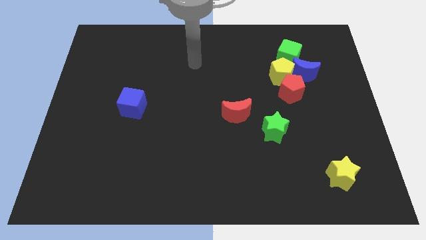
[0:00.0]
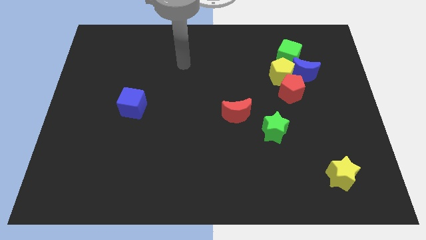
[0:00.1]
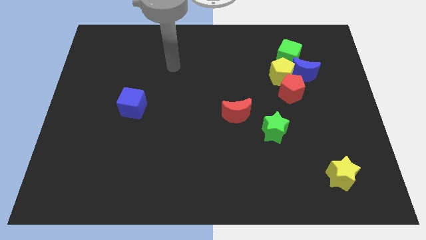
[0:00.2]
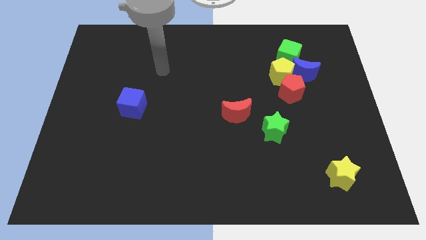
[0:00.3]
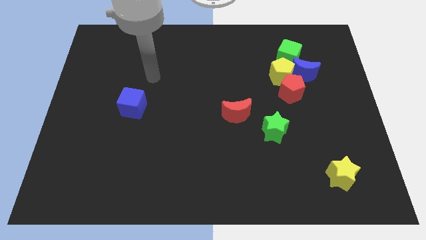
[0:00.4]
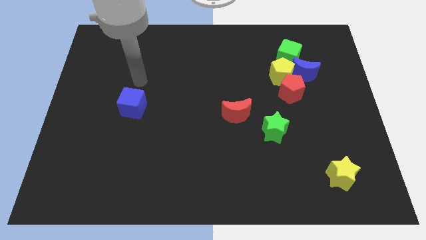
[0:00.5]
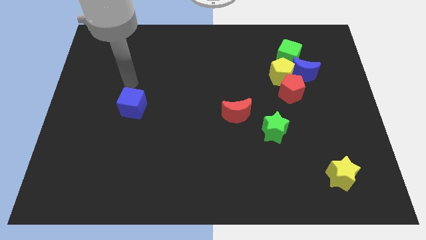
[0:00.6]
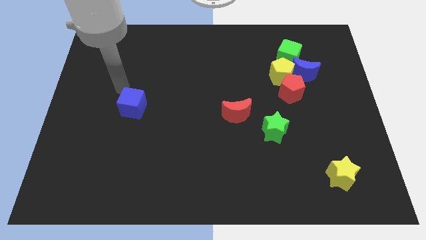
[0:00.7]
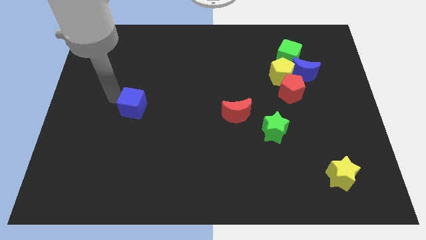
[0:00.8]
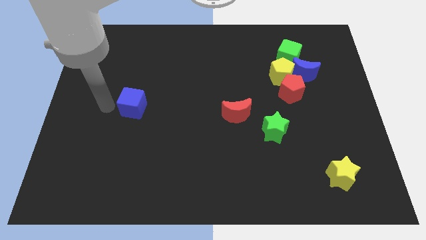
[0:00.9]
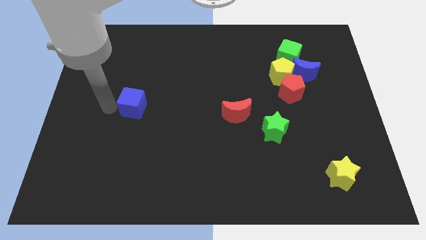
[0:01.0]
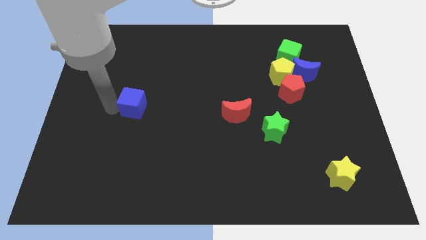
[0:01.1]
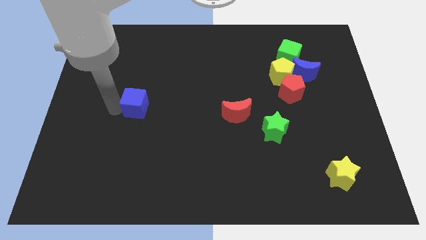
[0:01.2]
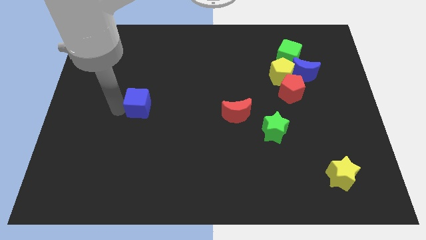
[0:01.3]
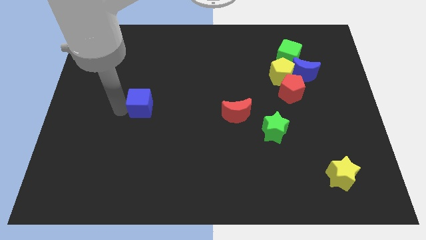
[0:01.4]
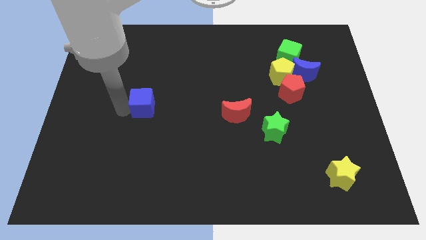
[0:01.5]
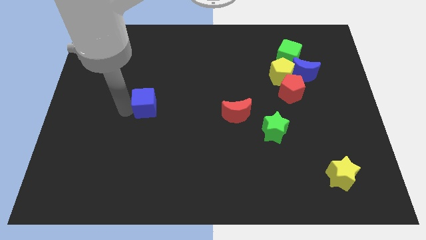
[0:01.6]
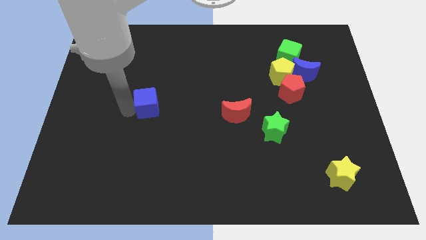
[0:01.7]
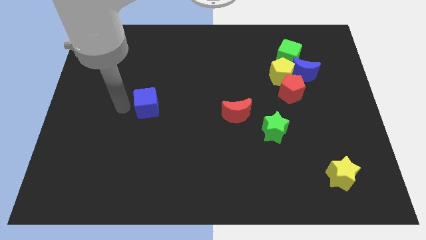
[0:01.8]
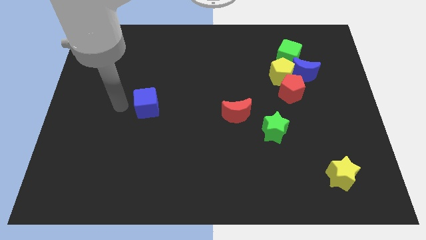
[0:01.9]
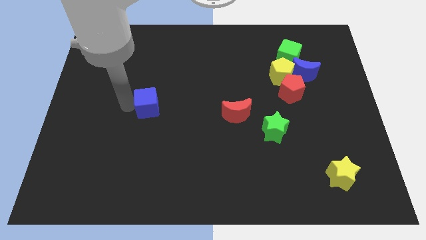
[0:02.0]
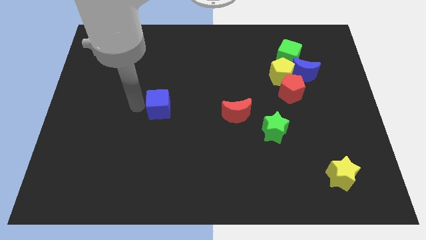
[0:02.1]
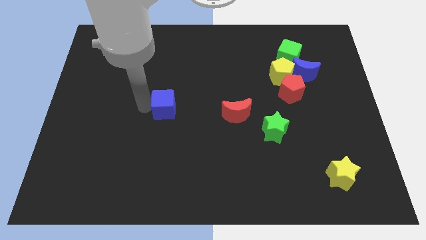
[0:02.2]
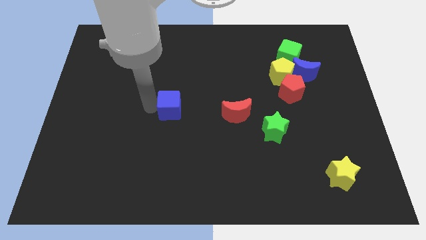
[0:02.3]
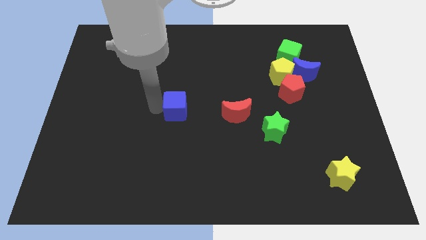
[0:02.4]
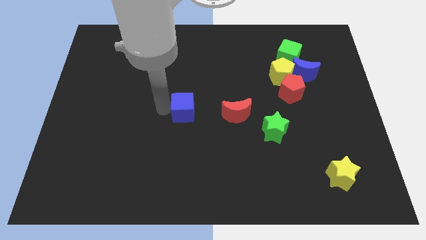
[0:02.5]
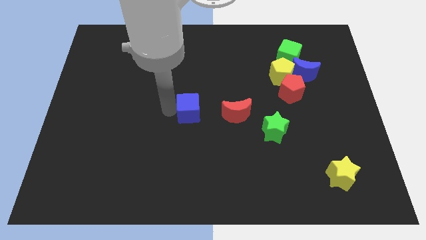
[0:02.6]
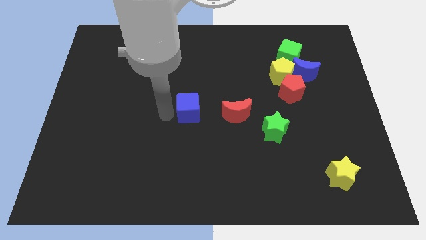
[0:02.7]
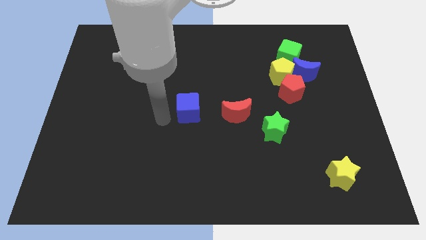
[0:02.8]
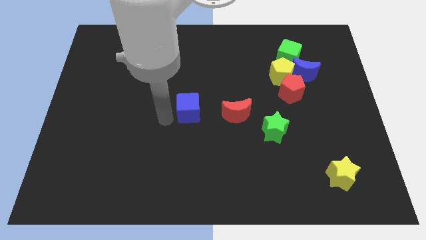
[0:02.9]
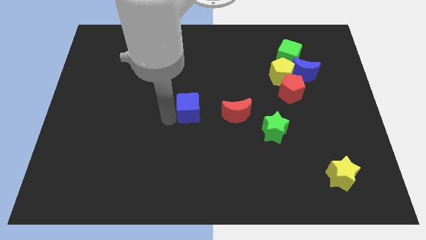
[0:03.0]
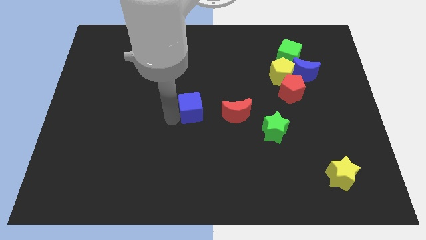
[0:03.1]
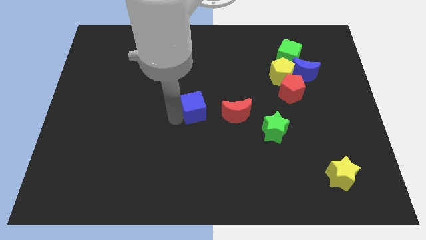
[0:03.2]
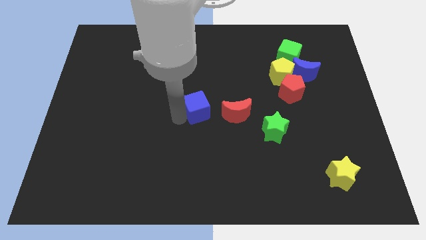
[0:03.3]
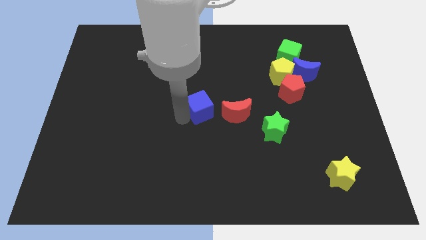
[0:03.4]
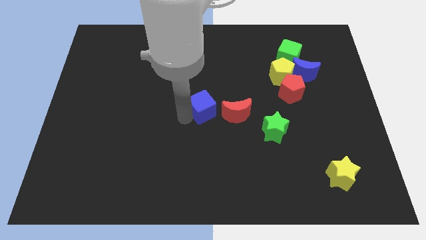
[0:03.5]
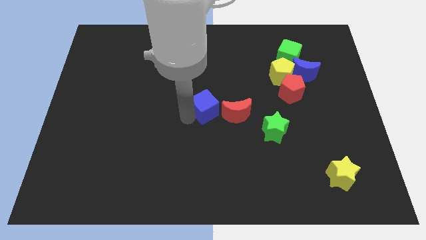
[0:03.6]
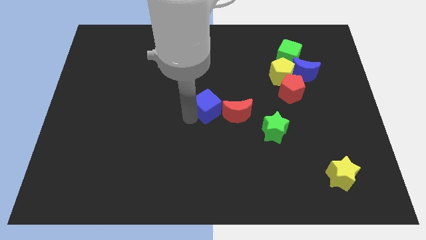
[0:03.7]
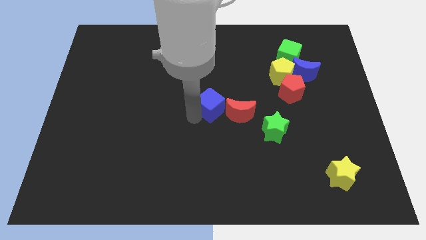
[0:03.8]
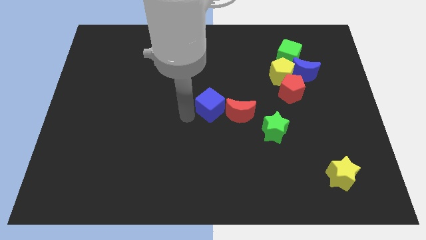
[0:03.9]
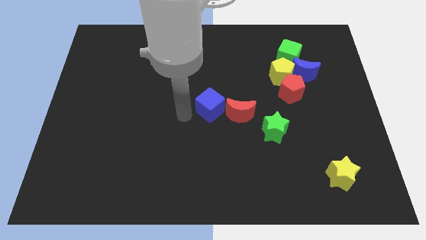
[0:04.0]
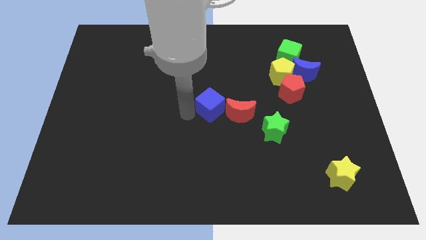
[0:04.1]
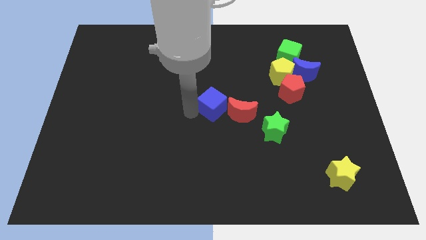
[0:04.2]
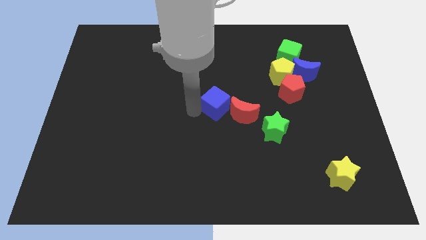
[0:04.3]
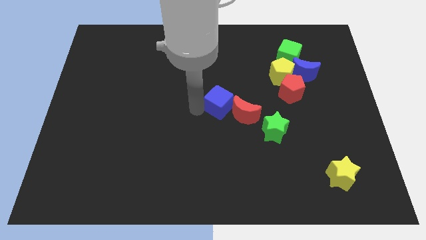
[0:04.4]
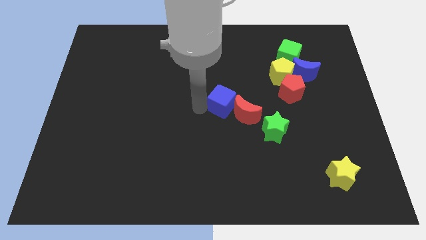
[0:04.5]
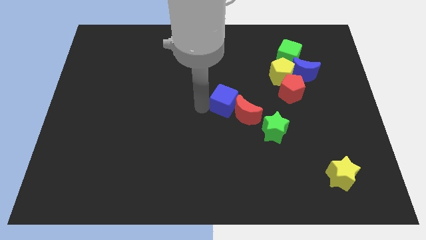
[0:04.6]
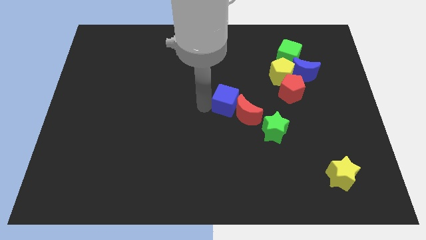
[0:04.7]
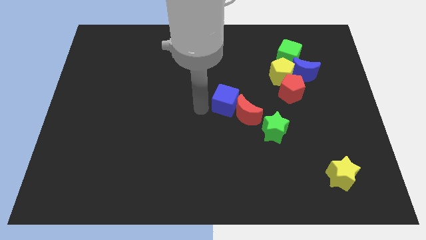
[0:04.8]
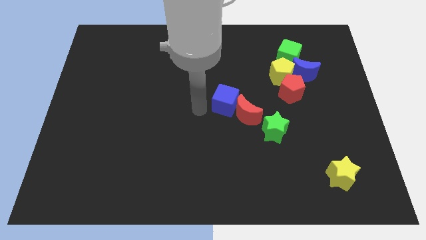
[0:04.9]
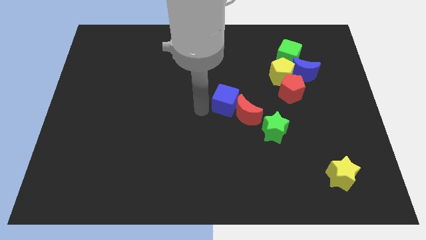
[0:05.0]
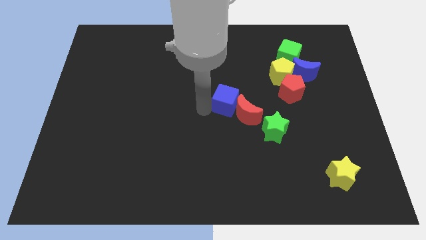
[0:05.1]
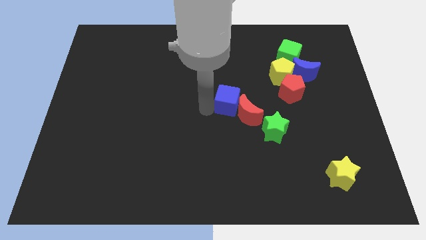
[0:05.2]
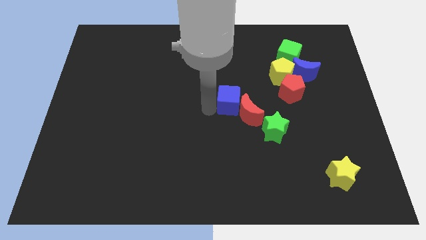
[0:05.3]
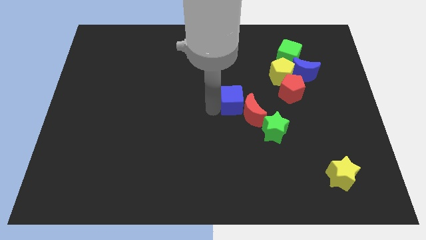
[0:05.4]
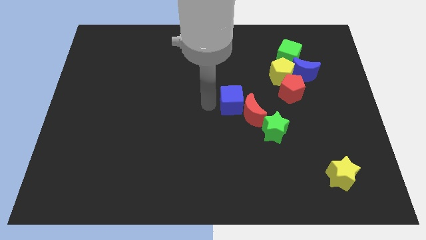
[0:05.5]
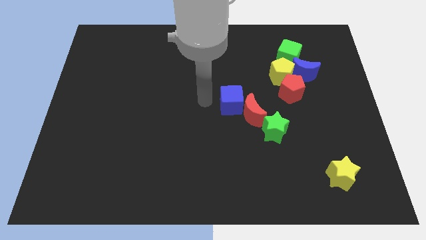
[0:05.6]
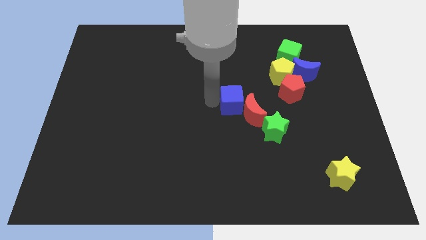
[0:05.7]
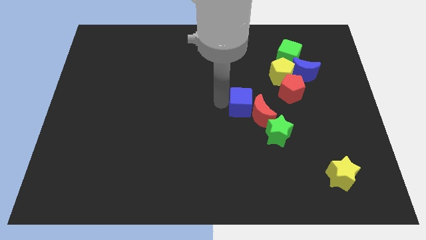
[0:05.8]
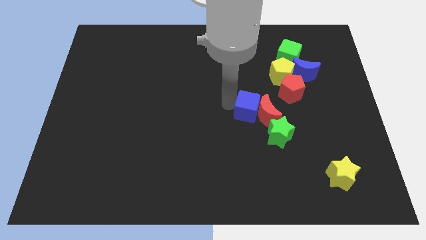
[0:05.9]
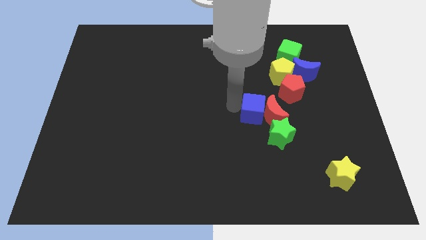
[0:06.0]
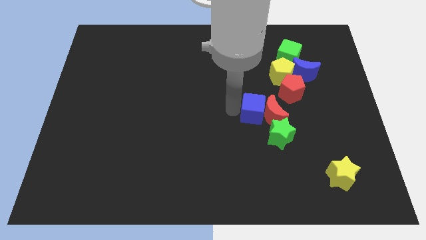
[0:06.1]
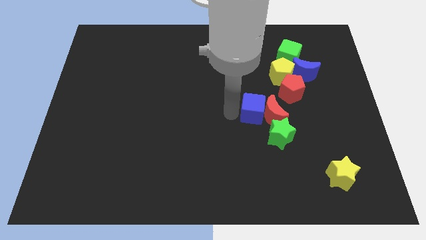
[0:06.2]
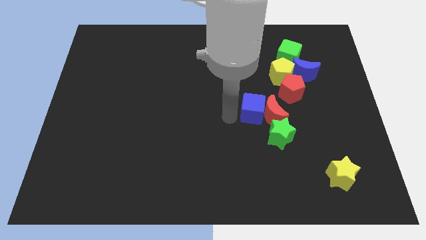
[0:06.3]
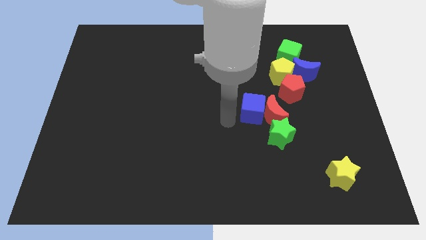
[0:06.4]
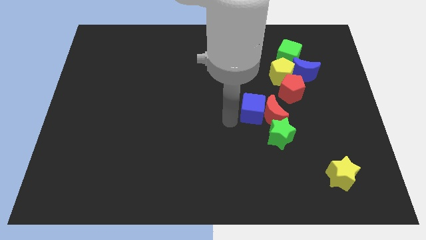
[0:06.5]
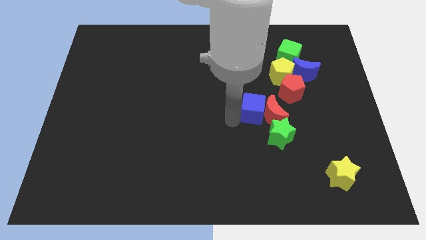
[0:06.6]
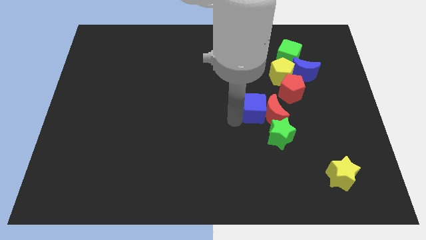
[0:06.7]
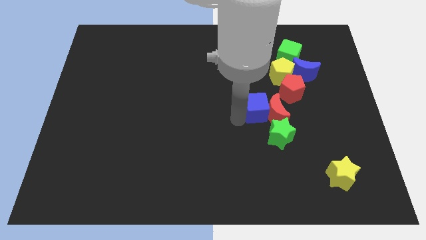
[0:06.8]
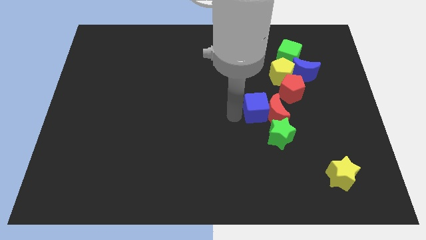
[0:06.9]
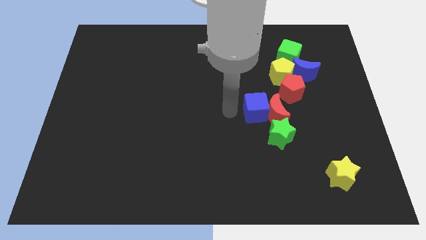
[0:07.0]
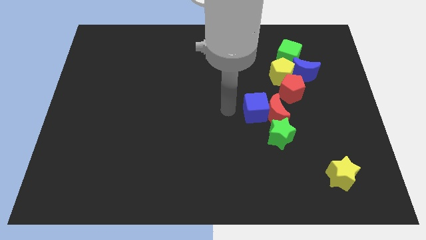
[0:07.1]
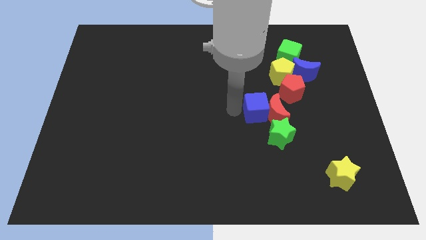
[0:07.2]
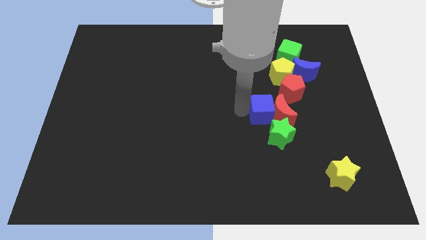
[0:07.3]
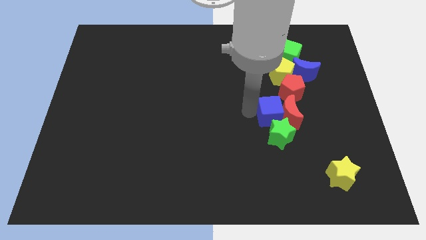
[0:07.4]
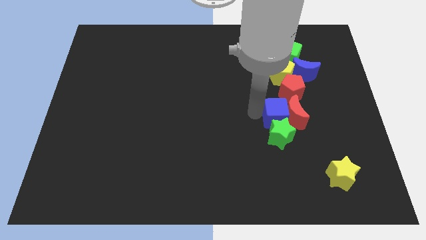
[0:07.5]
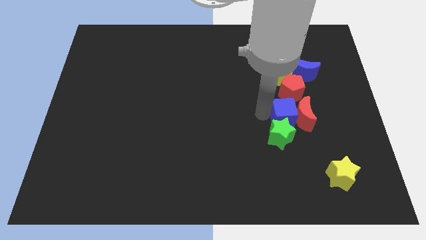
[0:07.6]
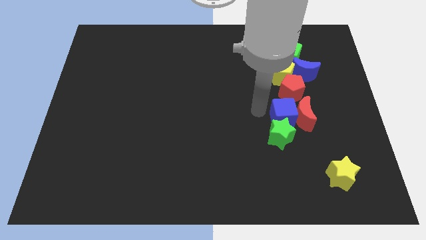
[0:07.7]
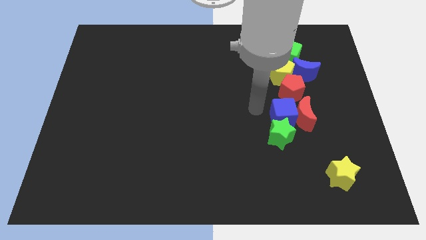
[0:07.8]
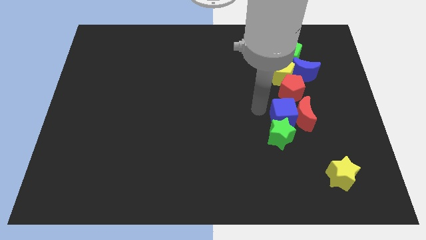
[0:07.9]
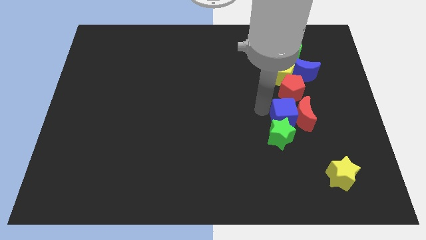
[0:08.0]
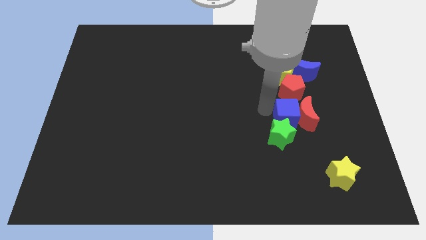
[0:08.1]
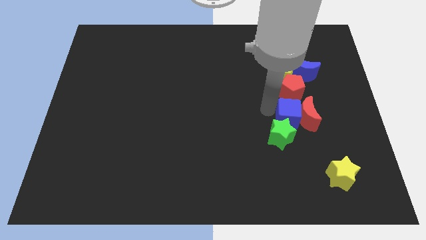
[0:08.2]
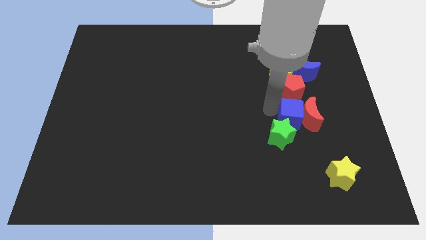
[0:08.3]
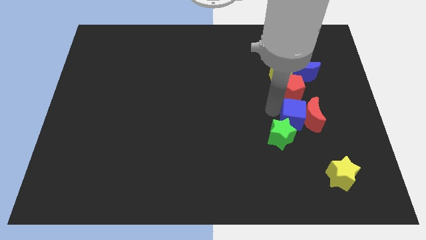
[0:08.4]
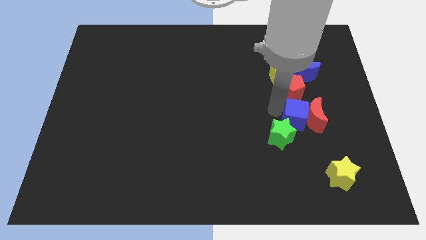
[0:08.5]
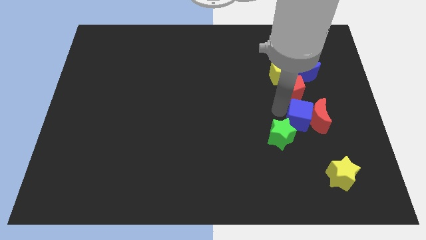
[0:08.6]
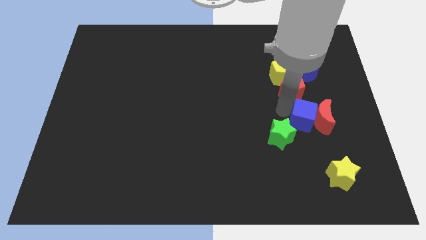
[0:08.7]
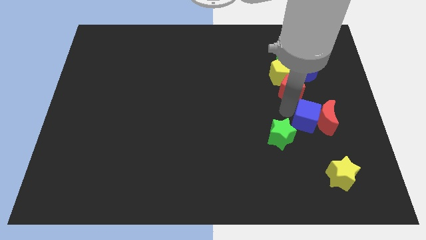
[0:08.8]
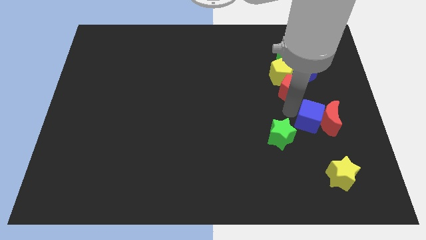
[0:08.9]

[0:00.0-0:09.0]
move the blue cube to the top of the yellow star
